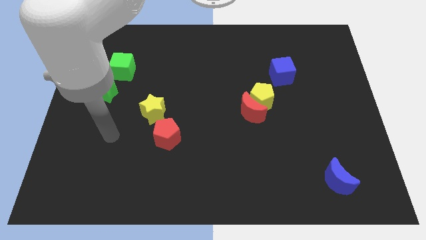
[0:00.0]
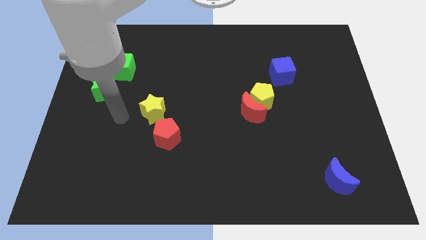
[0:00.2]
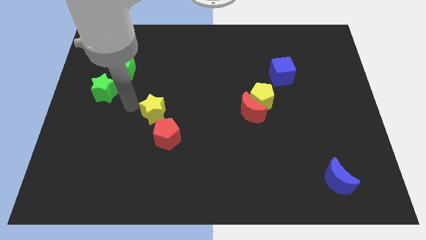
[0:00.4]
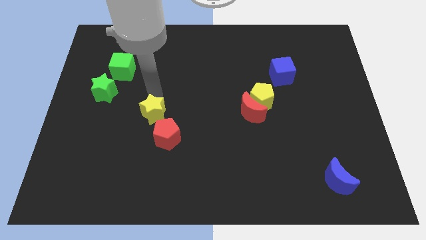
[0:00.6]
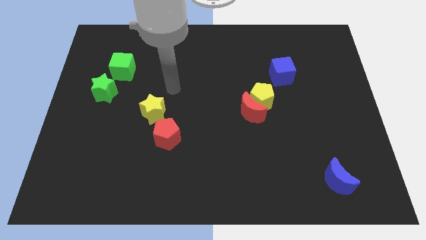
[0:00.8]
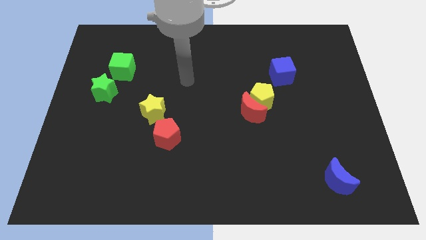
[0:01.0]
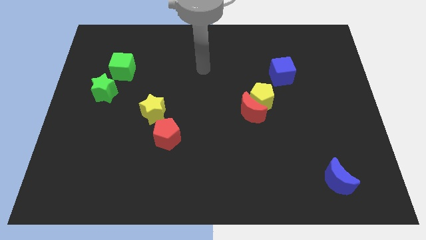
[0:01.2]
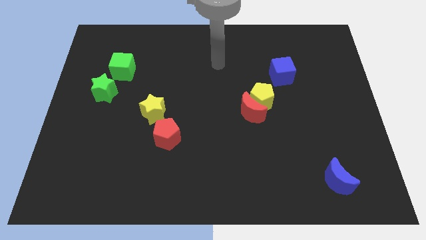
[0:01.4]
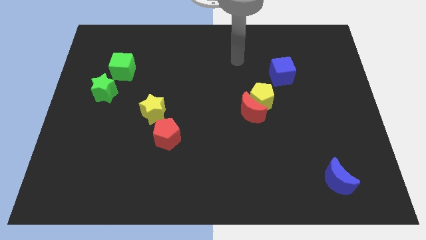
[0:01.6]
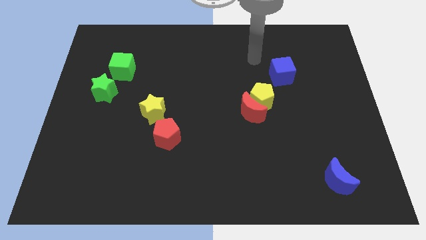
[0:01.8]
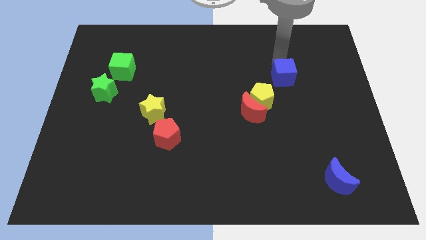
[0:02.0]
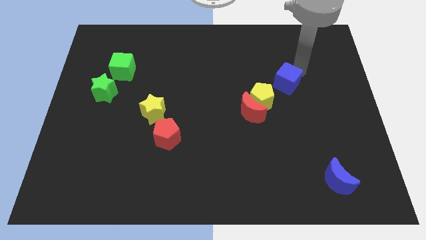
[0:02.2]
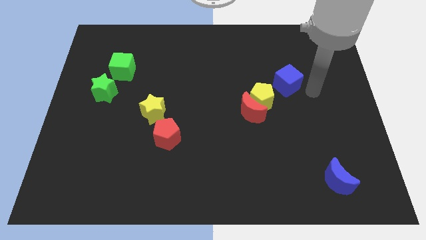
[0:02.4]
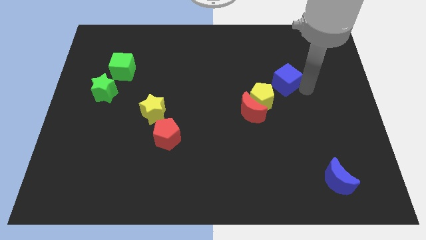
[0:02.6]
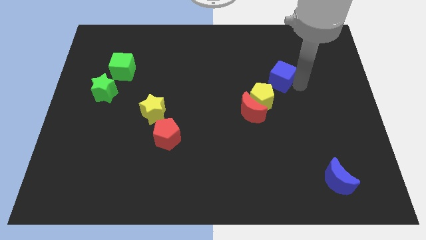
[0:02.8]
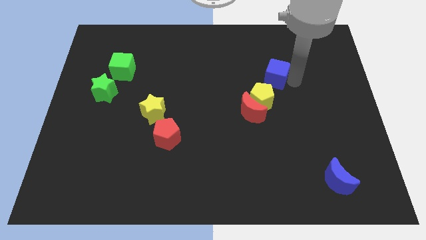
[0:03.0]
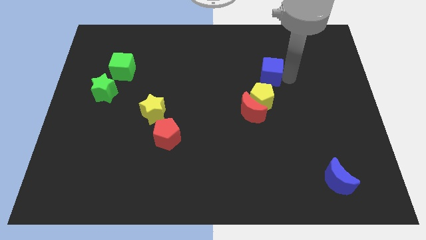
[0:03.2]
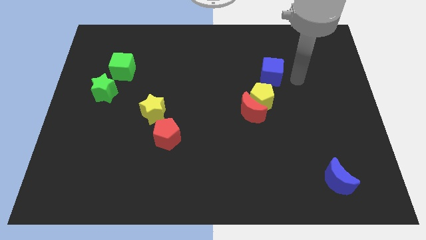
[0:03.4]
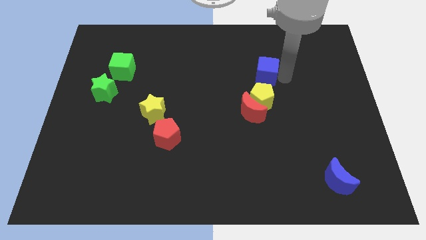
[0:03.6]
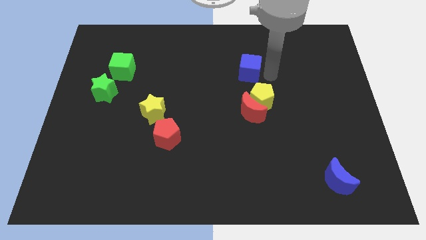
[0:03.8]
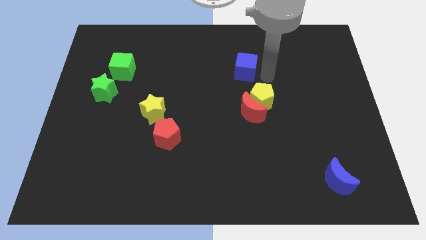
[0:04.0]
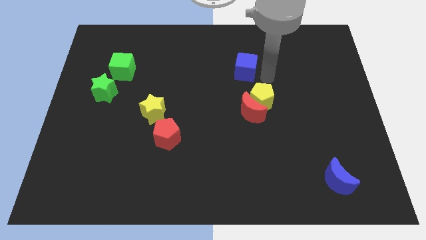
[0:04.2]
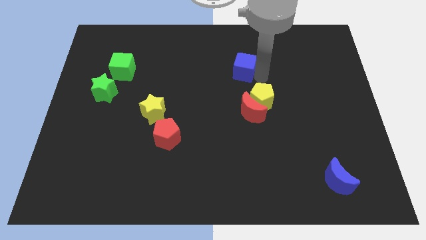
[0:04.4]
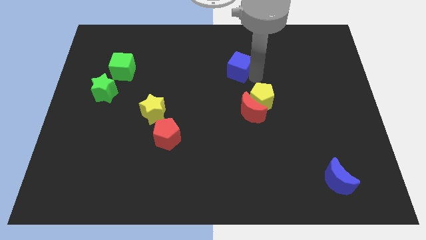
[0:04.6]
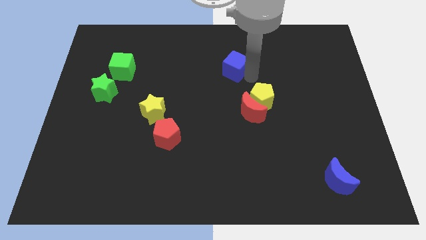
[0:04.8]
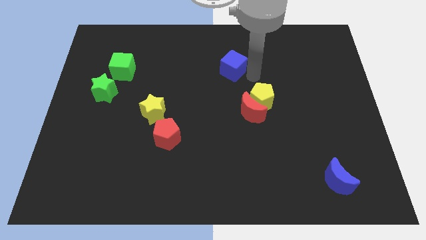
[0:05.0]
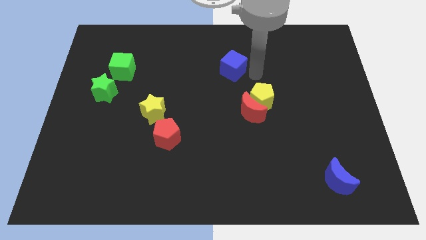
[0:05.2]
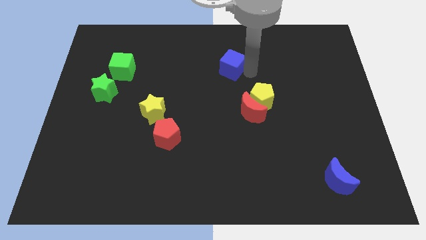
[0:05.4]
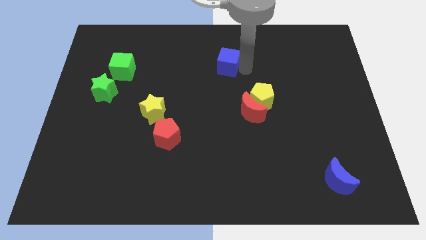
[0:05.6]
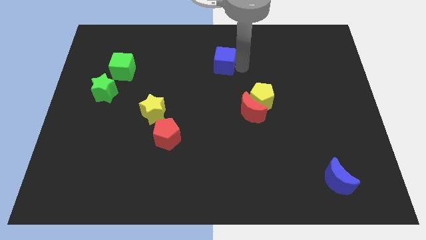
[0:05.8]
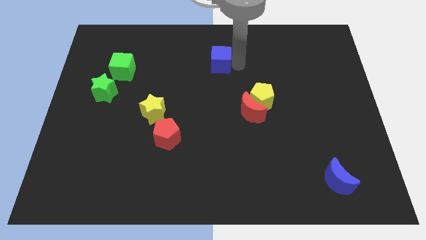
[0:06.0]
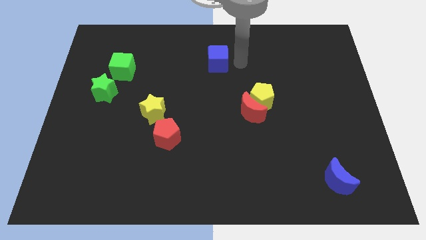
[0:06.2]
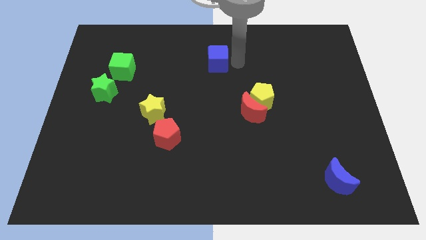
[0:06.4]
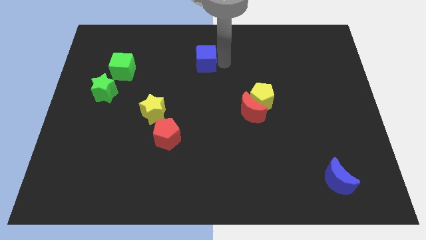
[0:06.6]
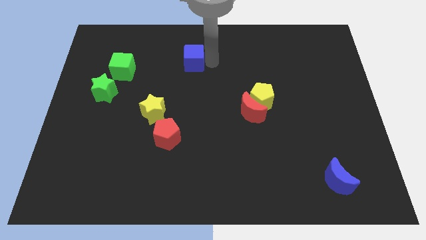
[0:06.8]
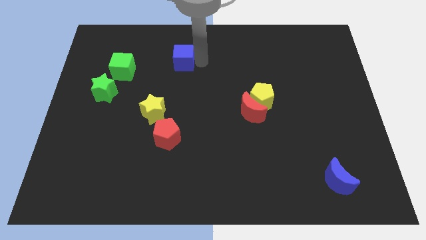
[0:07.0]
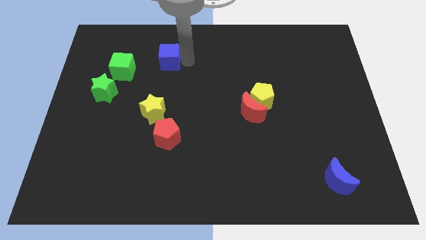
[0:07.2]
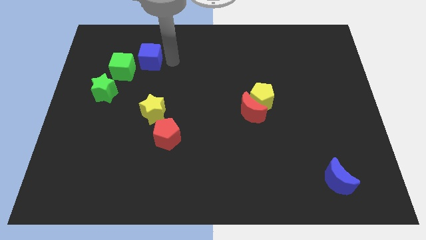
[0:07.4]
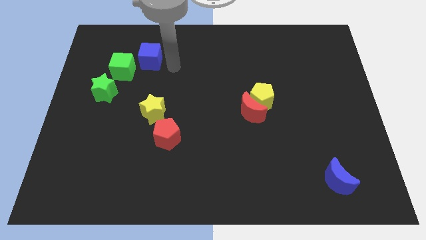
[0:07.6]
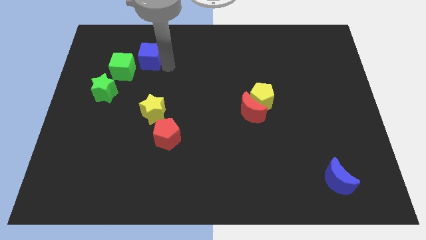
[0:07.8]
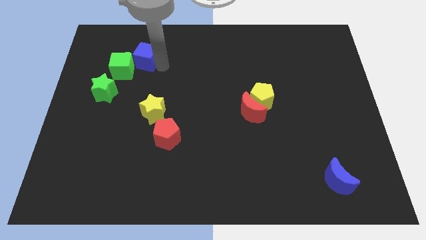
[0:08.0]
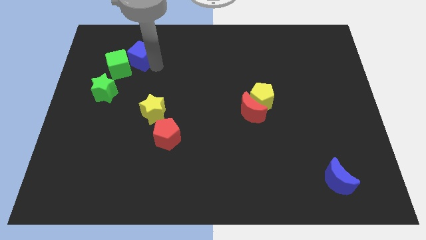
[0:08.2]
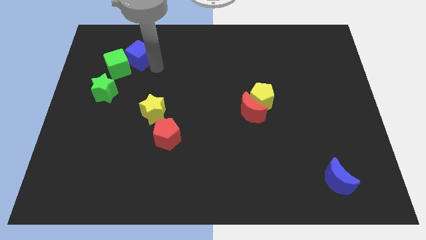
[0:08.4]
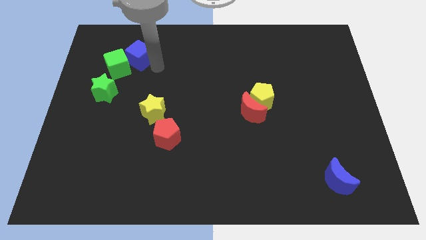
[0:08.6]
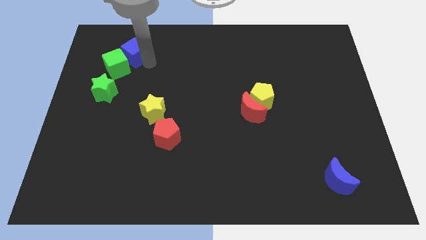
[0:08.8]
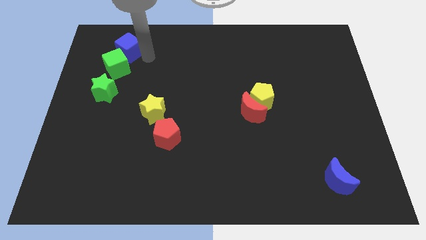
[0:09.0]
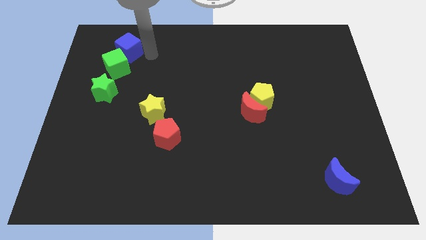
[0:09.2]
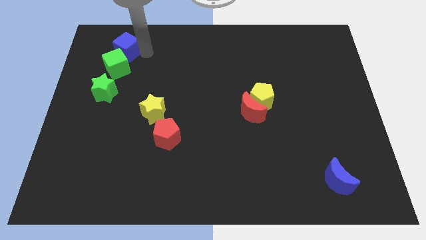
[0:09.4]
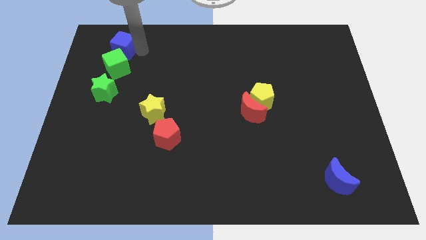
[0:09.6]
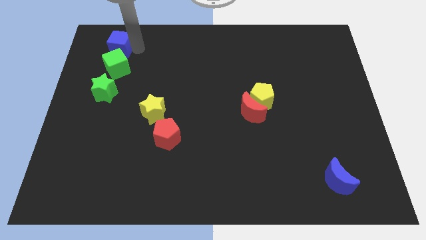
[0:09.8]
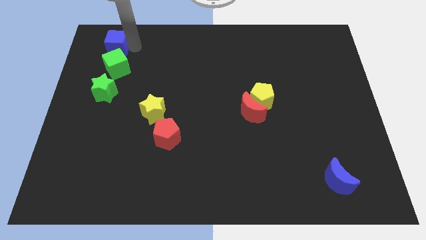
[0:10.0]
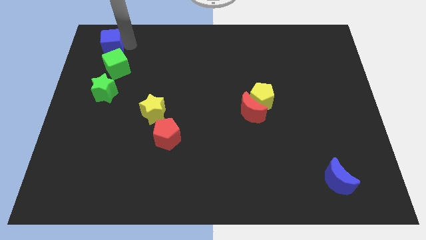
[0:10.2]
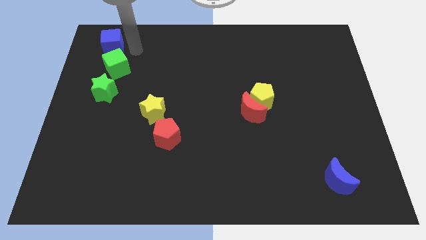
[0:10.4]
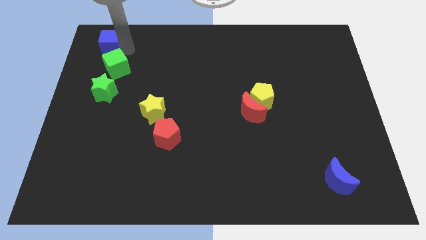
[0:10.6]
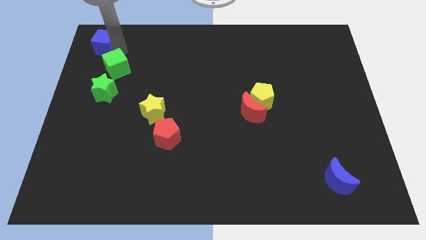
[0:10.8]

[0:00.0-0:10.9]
slide the blue cube to the upper left corner
